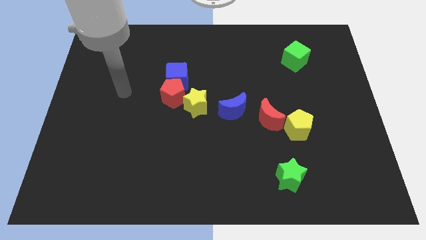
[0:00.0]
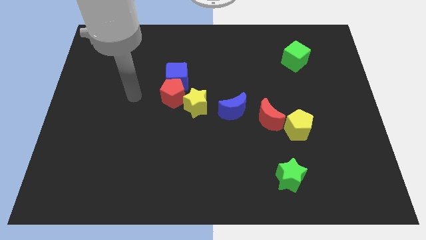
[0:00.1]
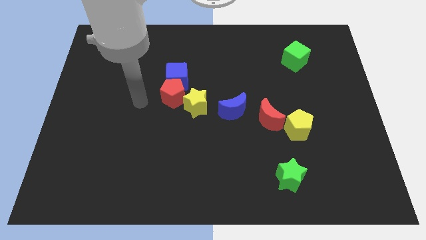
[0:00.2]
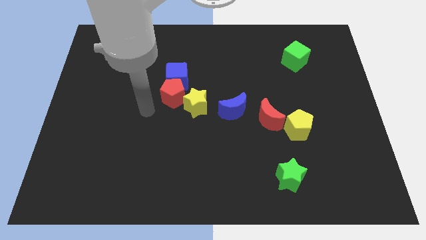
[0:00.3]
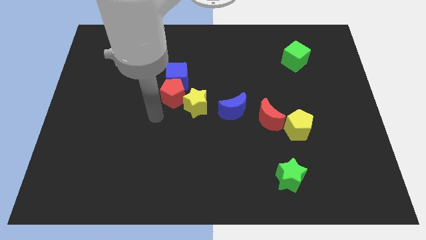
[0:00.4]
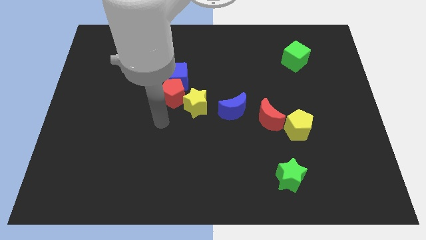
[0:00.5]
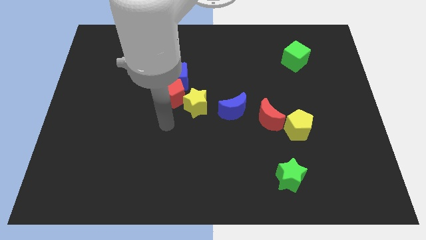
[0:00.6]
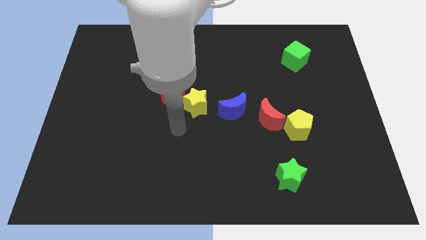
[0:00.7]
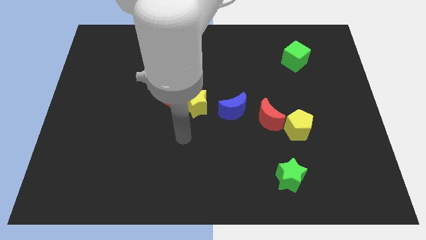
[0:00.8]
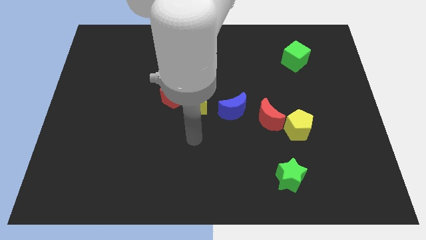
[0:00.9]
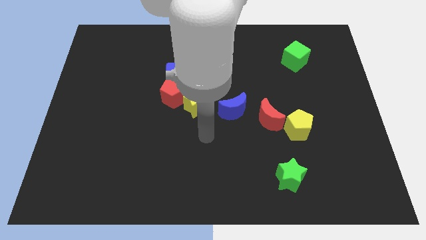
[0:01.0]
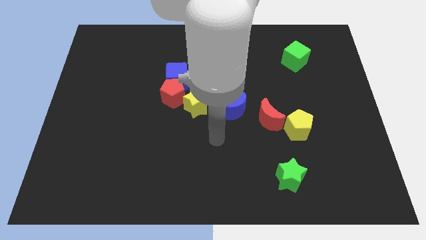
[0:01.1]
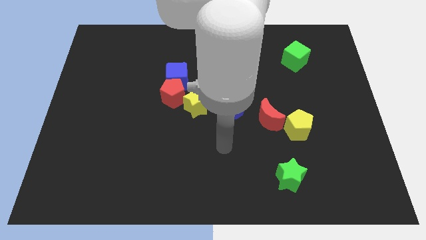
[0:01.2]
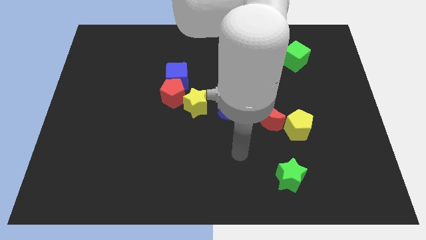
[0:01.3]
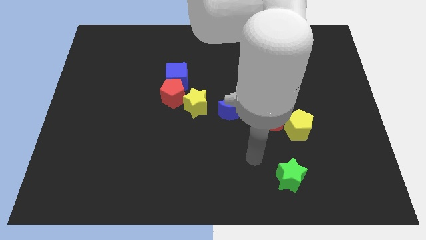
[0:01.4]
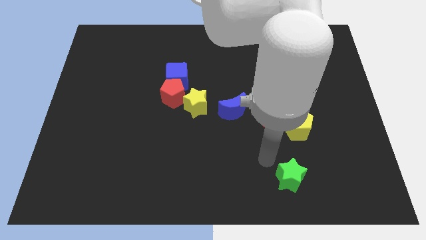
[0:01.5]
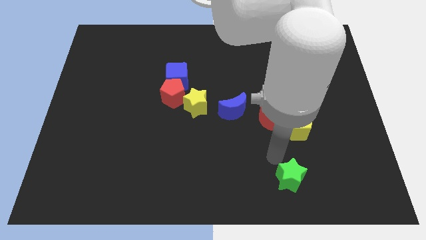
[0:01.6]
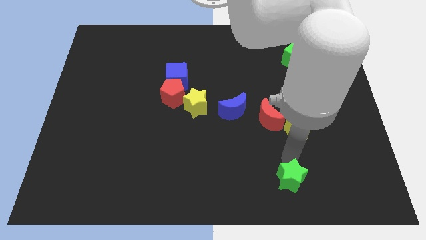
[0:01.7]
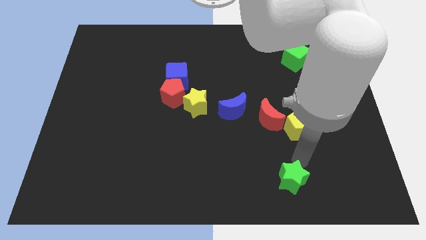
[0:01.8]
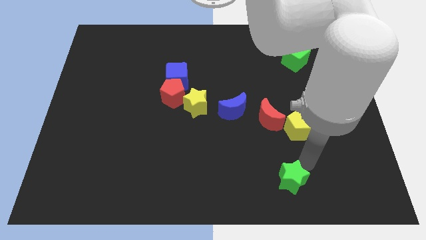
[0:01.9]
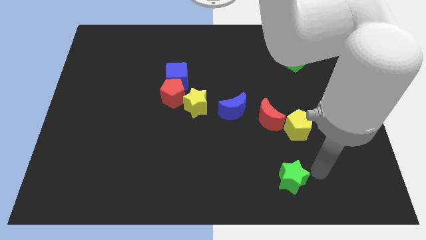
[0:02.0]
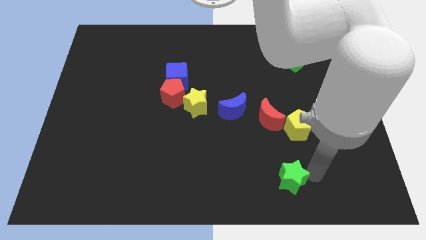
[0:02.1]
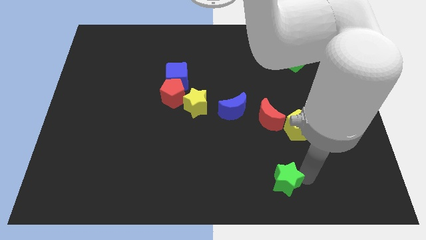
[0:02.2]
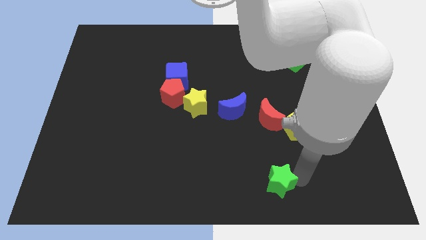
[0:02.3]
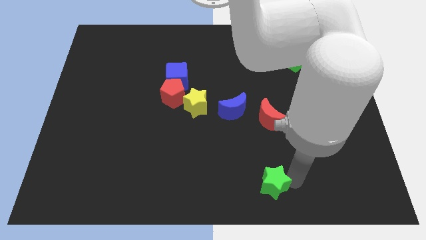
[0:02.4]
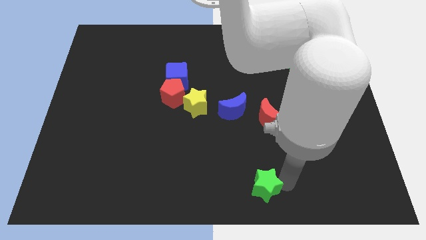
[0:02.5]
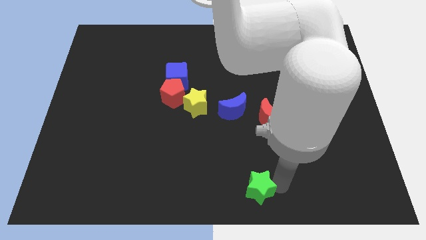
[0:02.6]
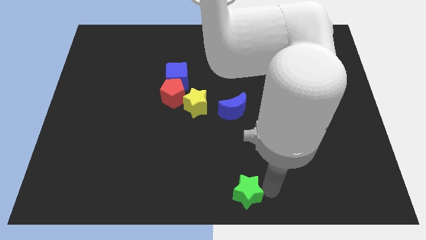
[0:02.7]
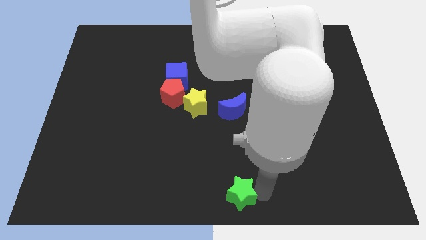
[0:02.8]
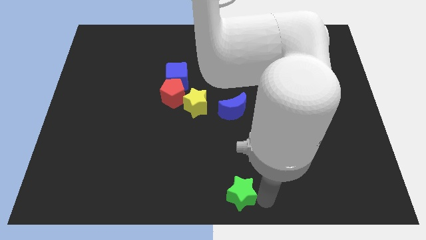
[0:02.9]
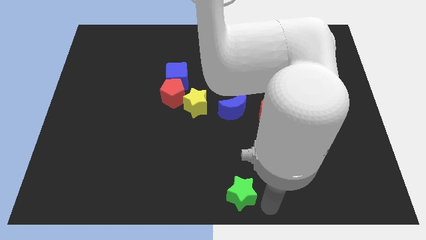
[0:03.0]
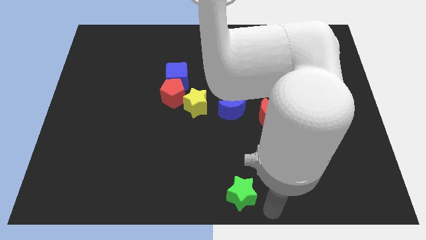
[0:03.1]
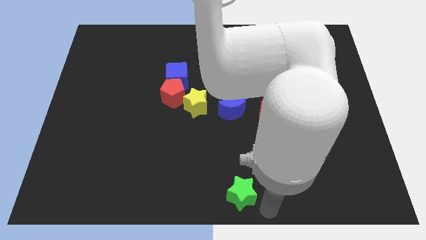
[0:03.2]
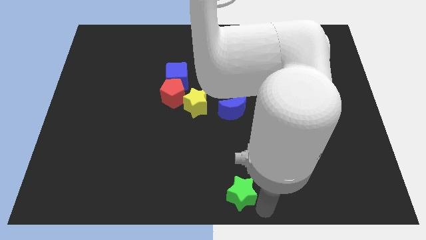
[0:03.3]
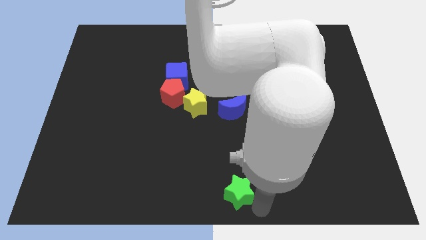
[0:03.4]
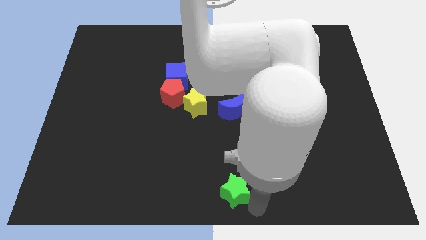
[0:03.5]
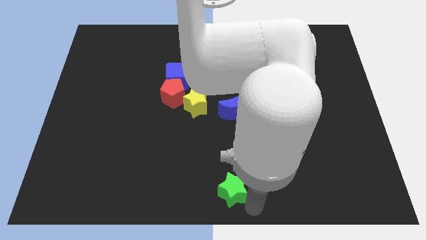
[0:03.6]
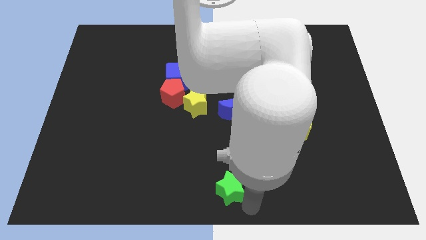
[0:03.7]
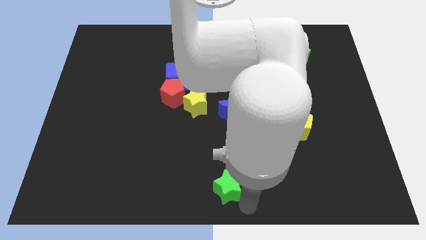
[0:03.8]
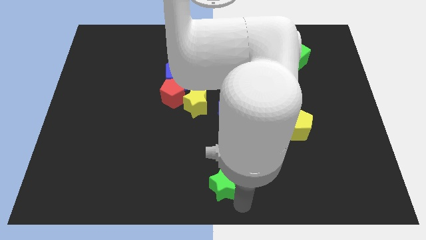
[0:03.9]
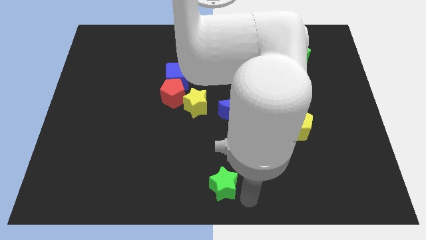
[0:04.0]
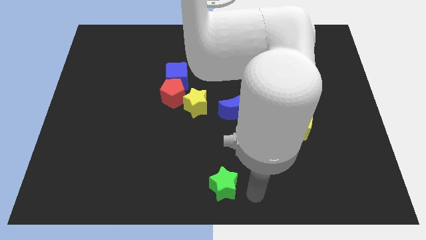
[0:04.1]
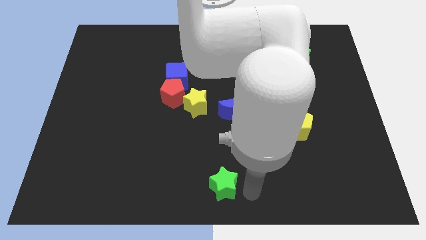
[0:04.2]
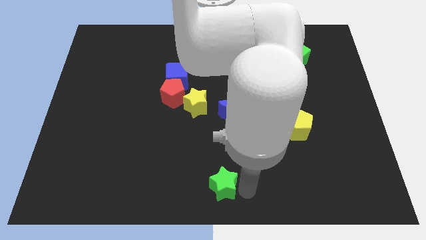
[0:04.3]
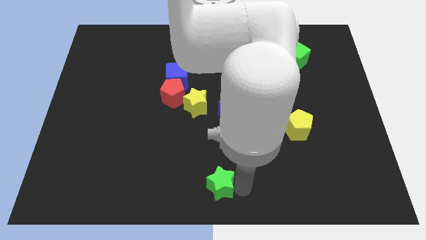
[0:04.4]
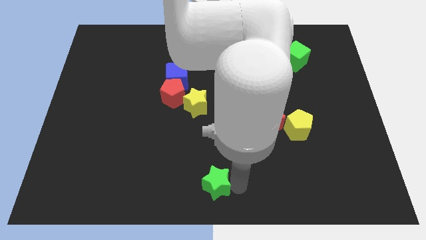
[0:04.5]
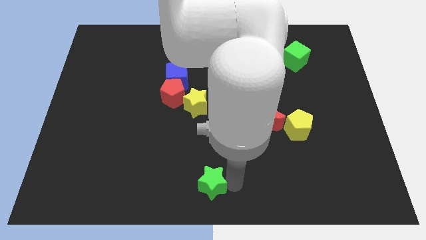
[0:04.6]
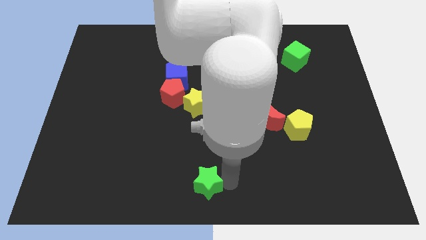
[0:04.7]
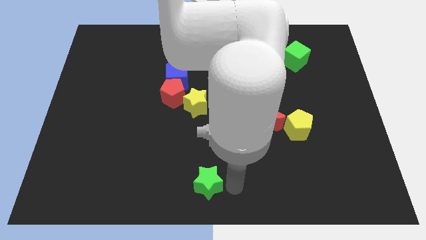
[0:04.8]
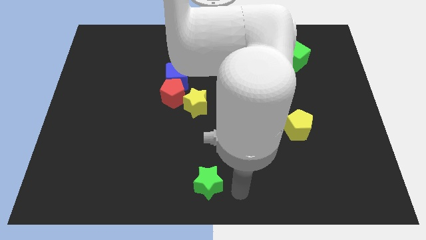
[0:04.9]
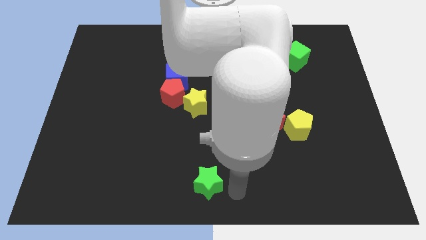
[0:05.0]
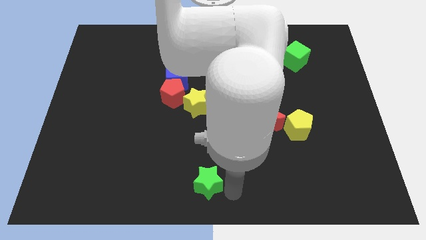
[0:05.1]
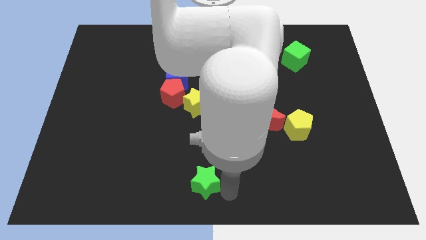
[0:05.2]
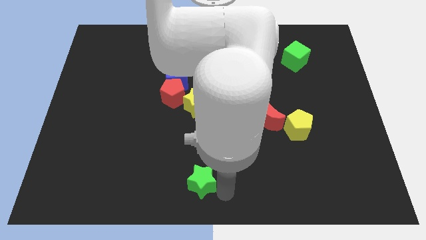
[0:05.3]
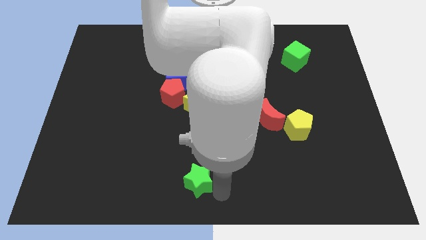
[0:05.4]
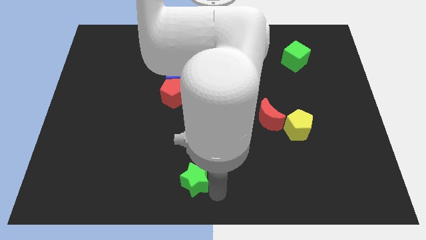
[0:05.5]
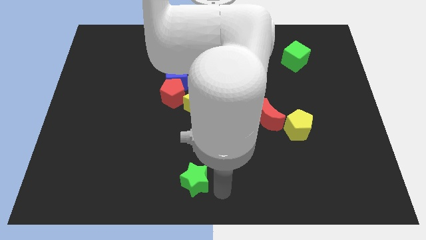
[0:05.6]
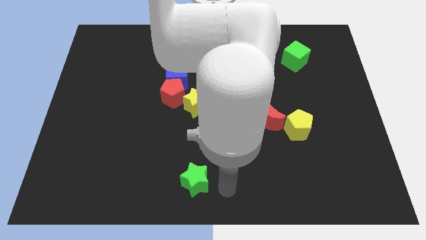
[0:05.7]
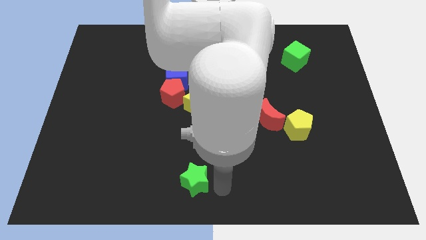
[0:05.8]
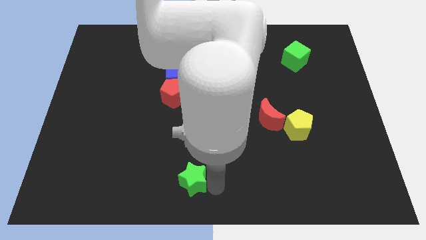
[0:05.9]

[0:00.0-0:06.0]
move the green star left

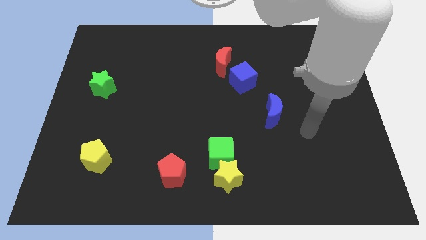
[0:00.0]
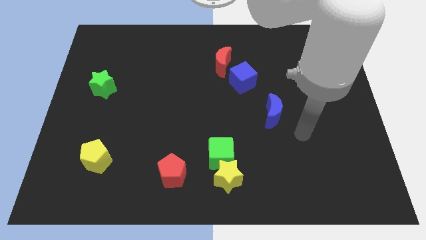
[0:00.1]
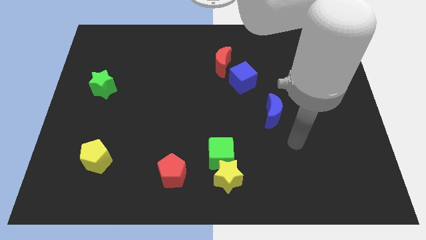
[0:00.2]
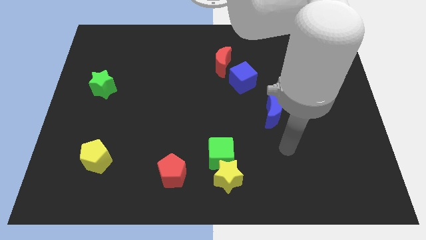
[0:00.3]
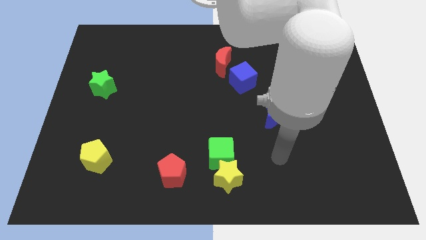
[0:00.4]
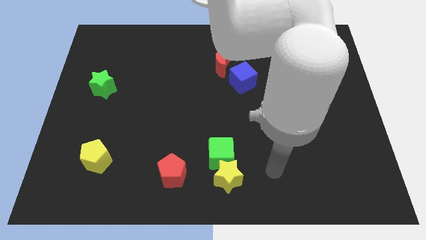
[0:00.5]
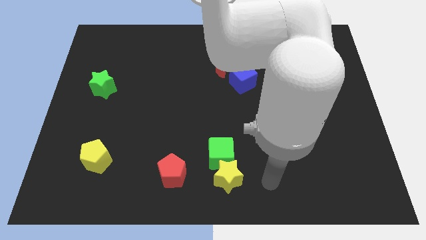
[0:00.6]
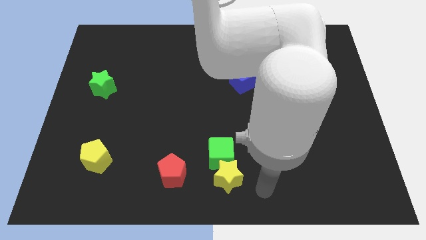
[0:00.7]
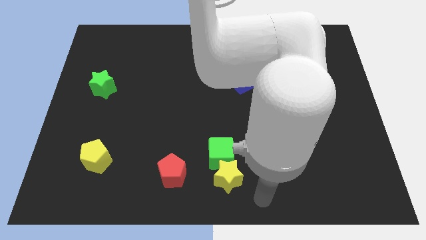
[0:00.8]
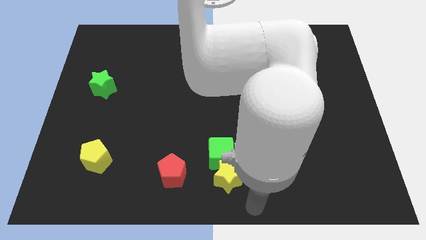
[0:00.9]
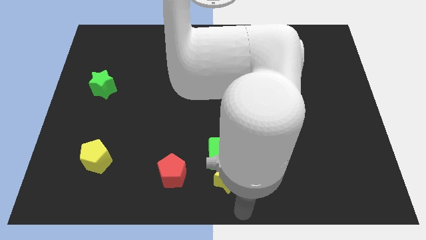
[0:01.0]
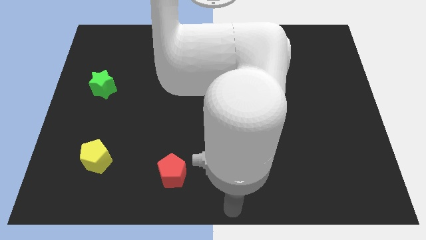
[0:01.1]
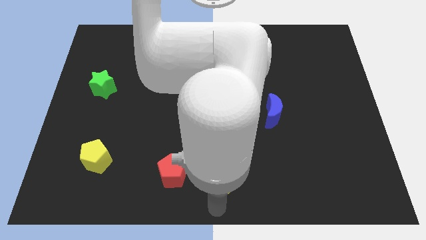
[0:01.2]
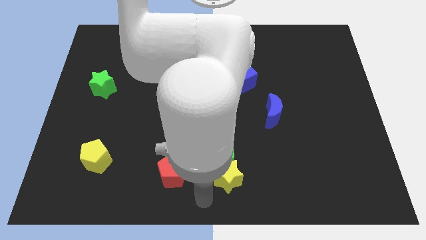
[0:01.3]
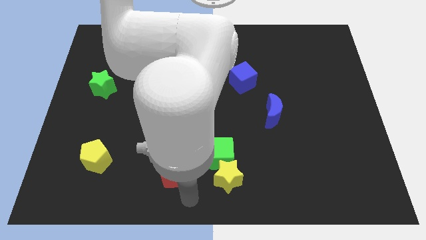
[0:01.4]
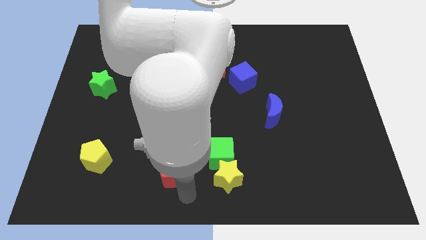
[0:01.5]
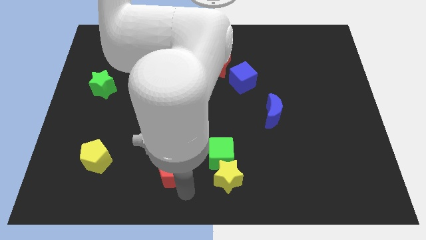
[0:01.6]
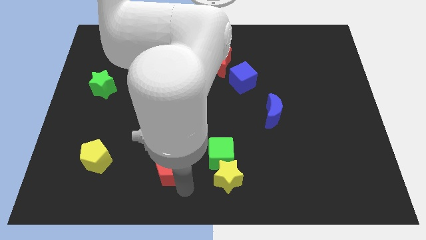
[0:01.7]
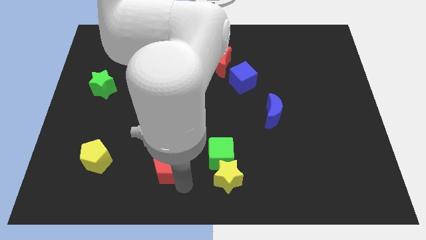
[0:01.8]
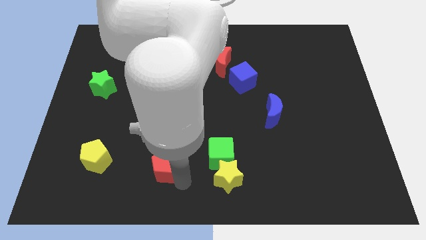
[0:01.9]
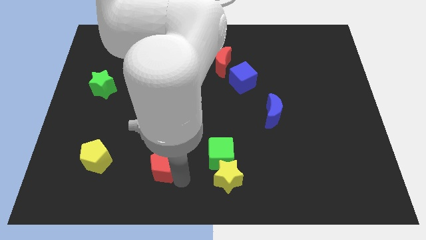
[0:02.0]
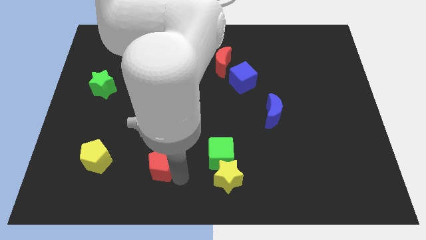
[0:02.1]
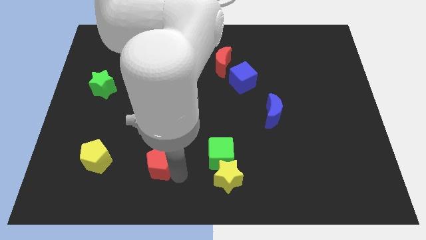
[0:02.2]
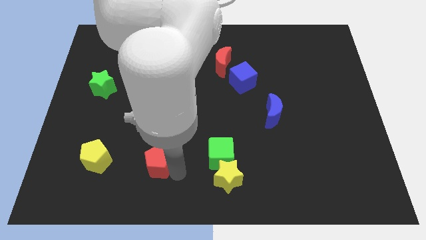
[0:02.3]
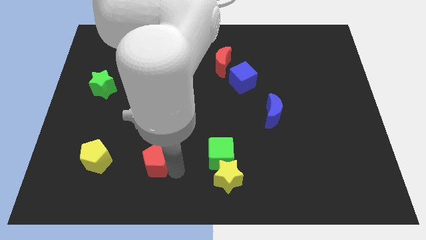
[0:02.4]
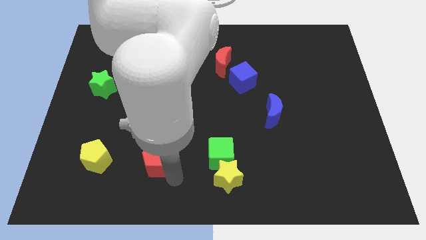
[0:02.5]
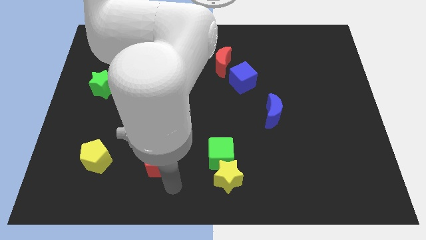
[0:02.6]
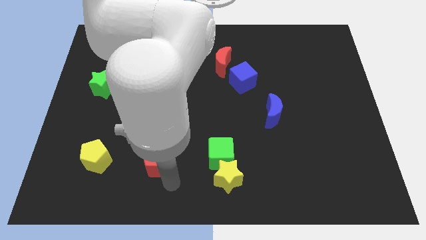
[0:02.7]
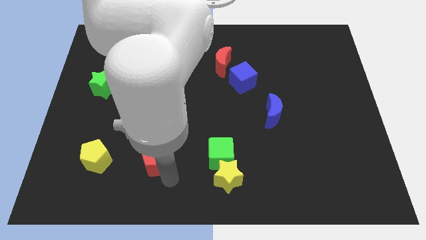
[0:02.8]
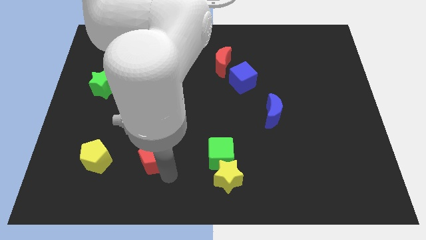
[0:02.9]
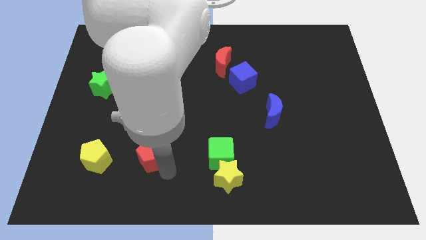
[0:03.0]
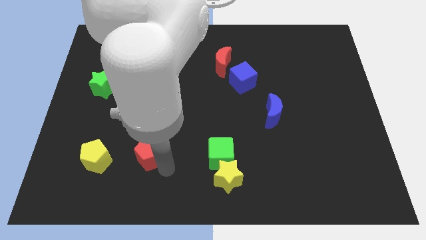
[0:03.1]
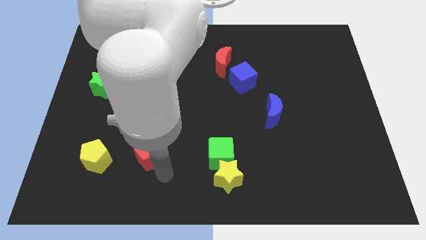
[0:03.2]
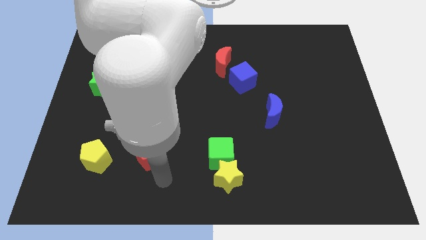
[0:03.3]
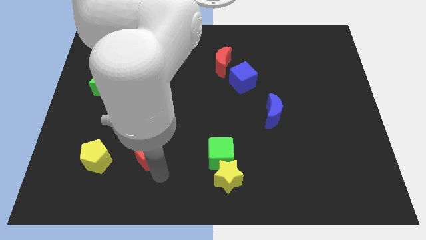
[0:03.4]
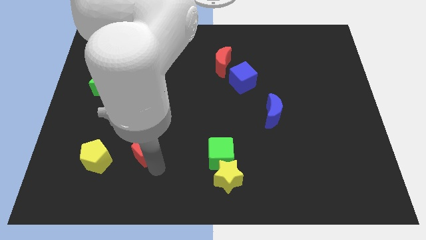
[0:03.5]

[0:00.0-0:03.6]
push the red pentagon a little bit upwards and then left
